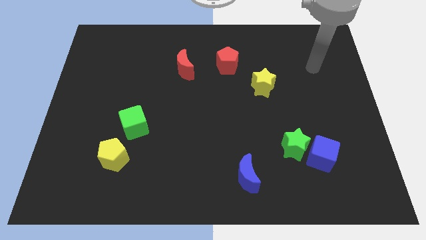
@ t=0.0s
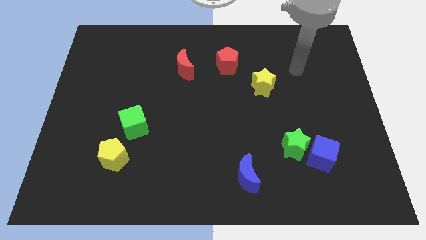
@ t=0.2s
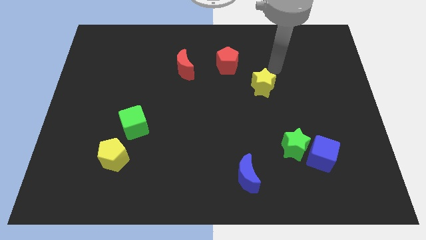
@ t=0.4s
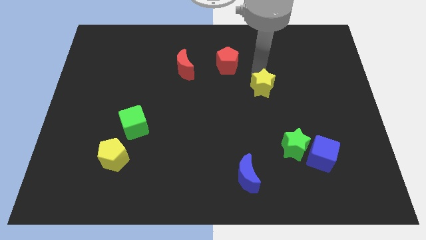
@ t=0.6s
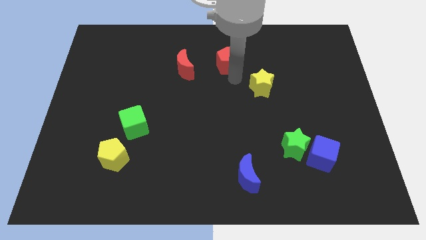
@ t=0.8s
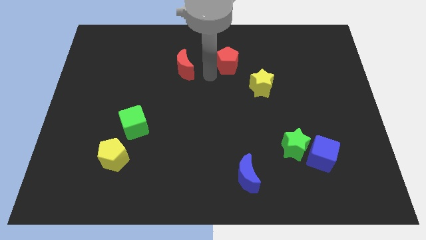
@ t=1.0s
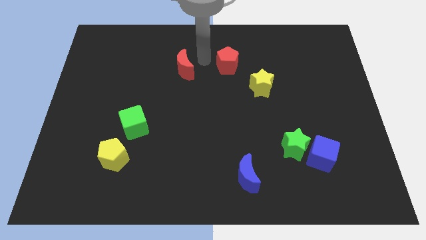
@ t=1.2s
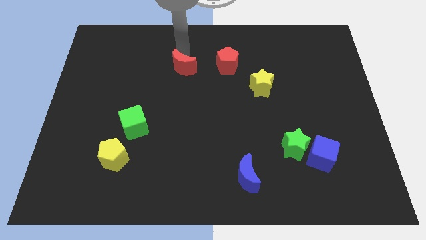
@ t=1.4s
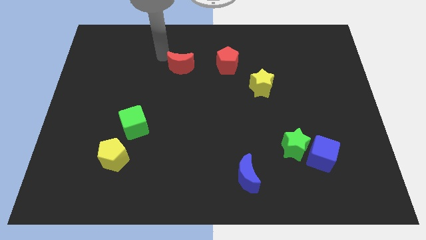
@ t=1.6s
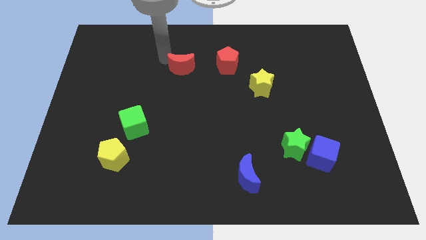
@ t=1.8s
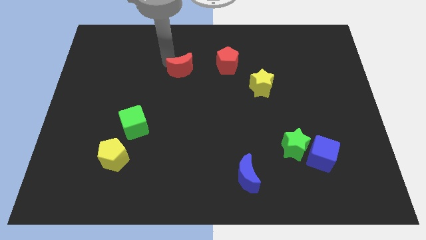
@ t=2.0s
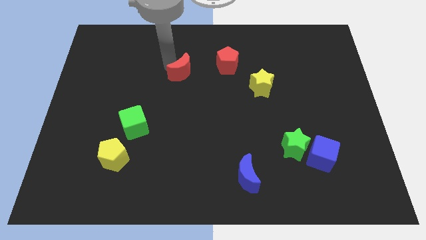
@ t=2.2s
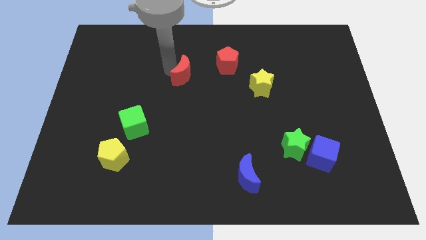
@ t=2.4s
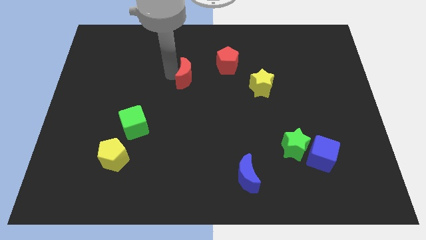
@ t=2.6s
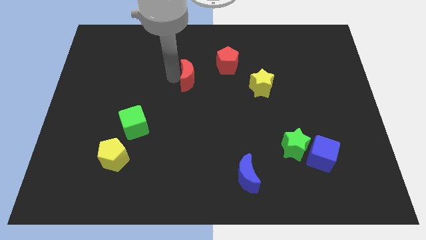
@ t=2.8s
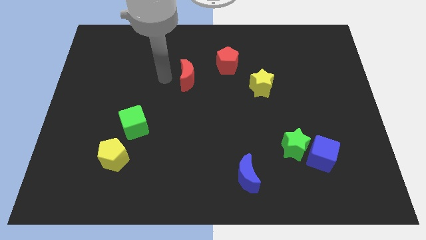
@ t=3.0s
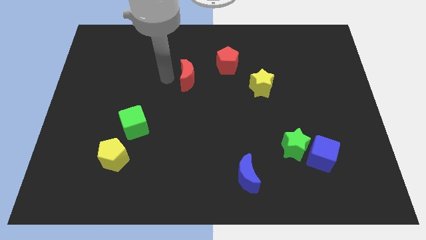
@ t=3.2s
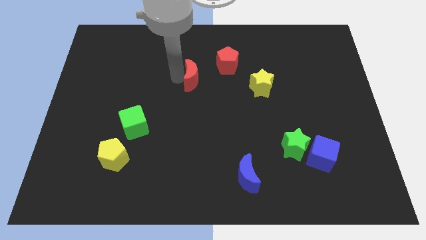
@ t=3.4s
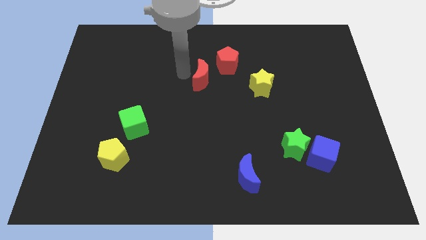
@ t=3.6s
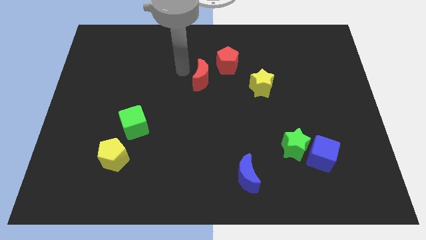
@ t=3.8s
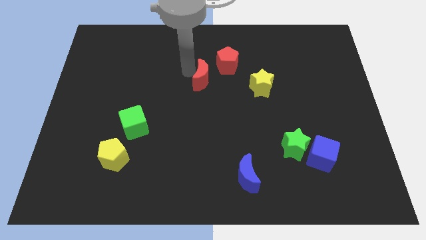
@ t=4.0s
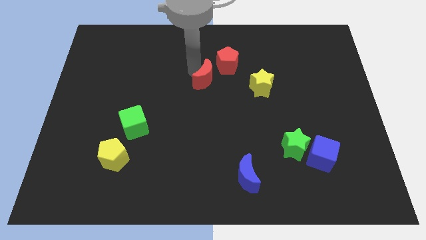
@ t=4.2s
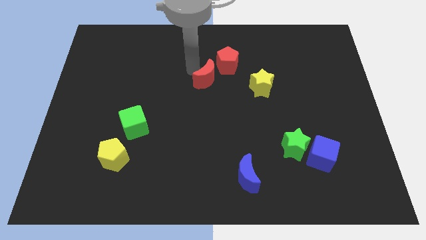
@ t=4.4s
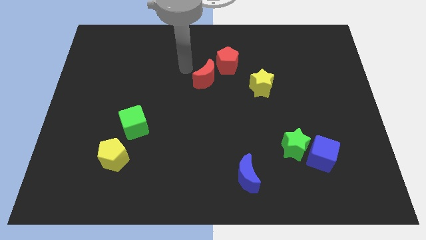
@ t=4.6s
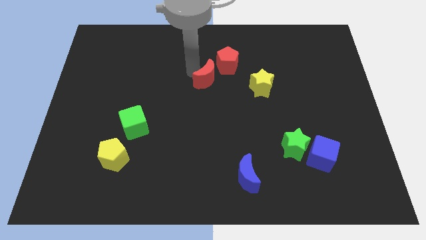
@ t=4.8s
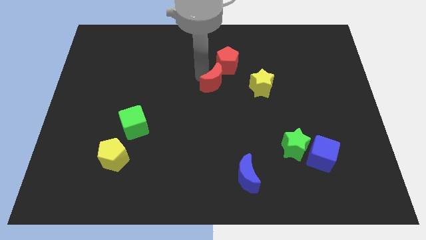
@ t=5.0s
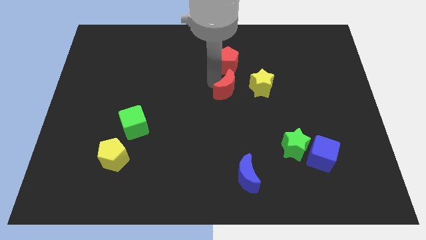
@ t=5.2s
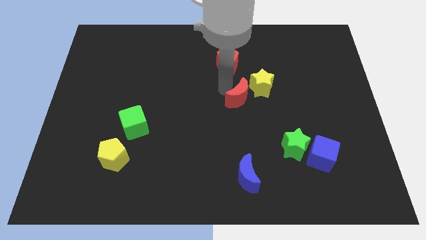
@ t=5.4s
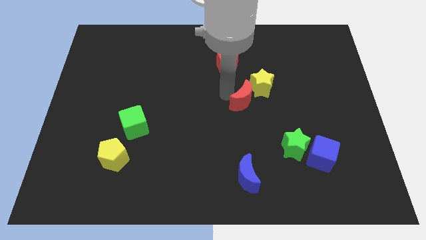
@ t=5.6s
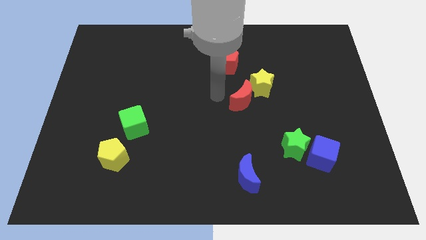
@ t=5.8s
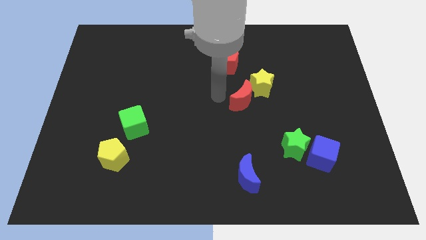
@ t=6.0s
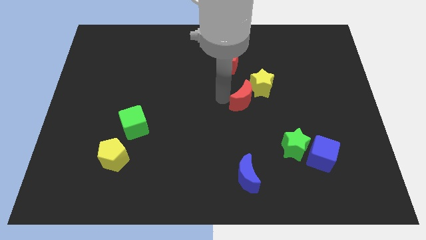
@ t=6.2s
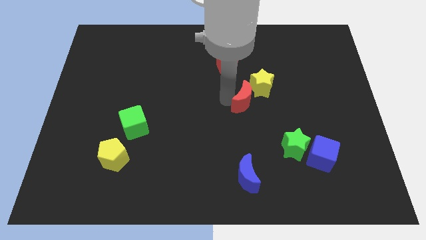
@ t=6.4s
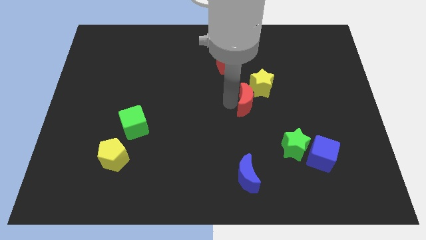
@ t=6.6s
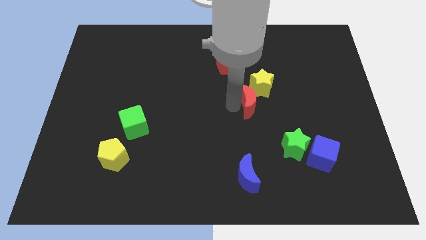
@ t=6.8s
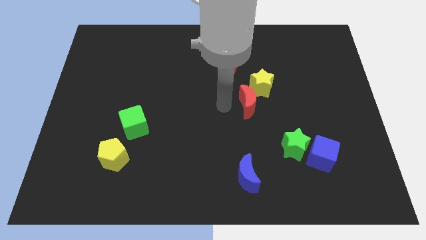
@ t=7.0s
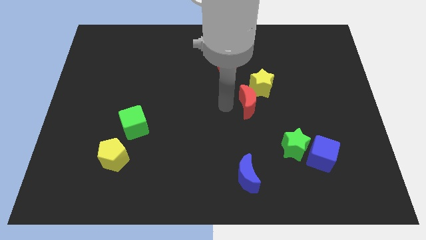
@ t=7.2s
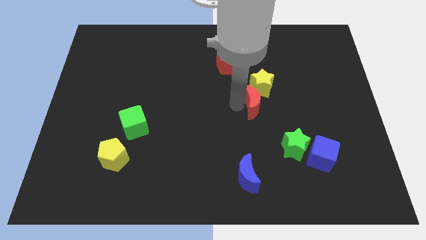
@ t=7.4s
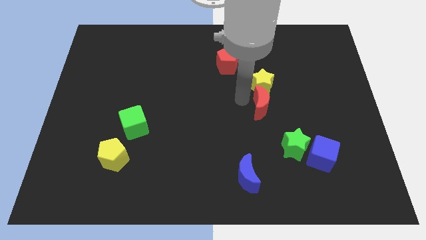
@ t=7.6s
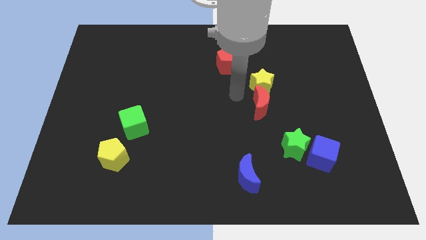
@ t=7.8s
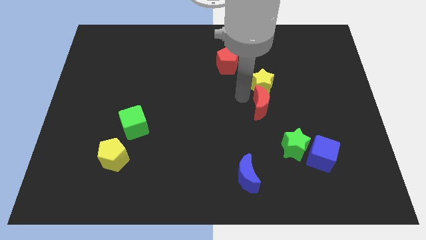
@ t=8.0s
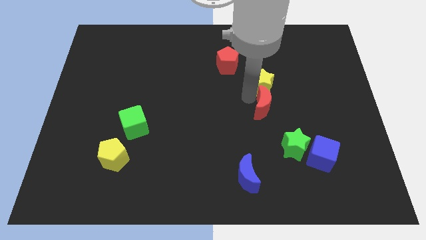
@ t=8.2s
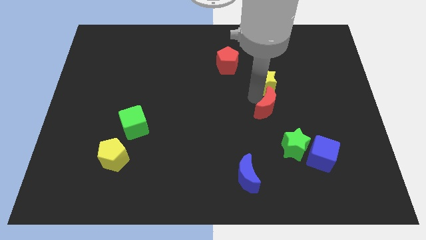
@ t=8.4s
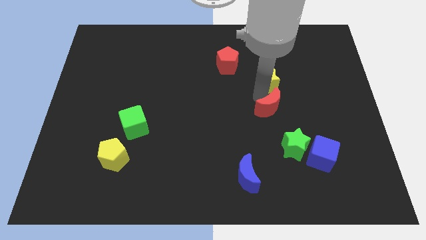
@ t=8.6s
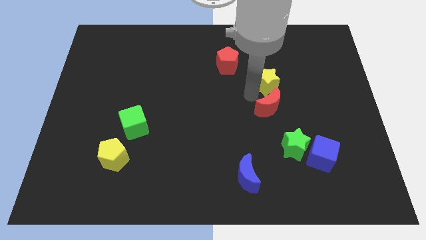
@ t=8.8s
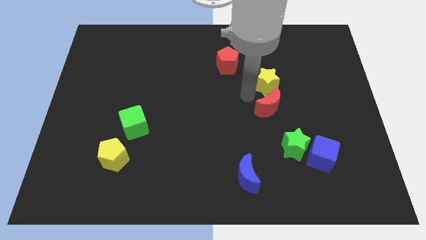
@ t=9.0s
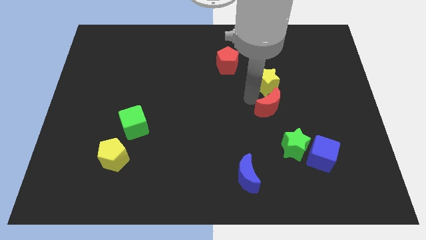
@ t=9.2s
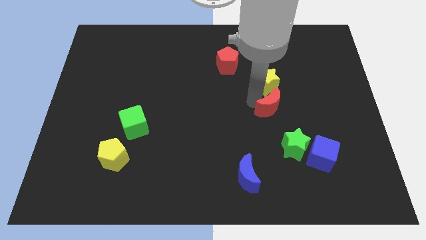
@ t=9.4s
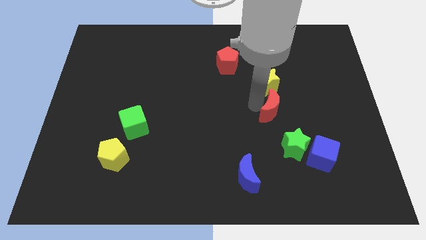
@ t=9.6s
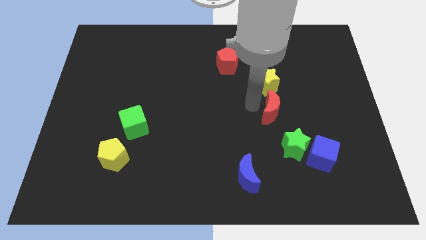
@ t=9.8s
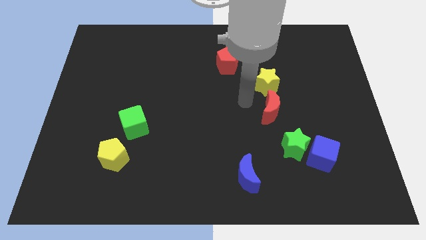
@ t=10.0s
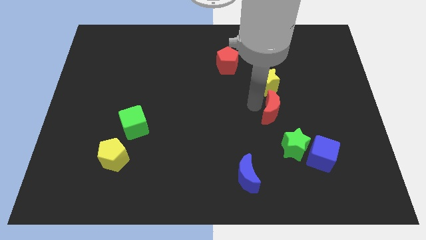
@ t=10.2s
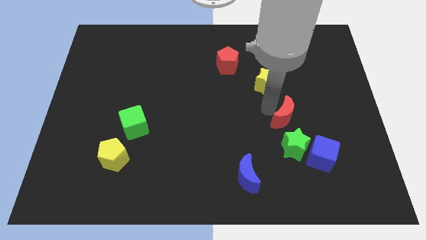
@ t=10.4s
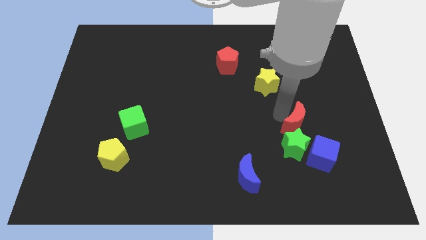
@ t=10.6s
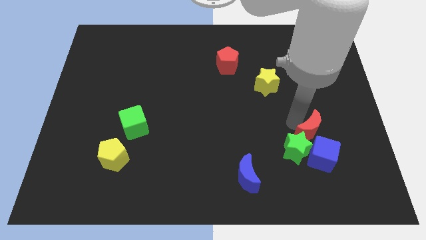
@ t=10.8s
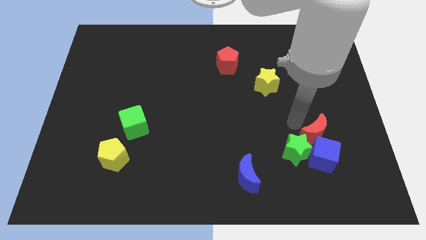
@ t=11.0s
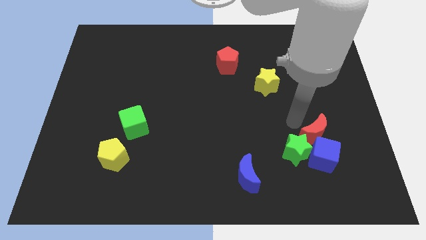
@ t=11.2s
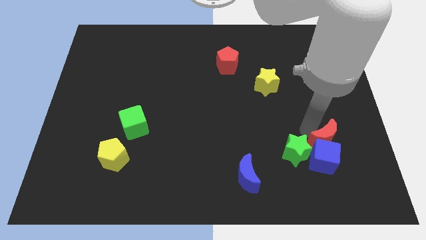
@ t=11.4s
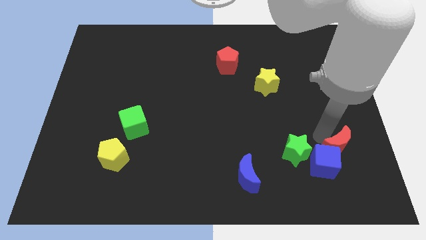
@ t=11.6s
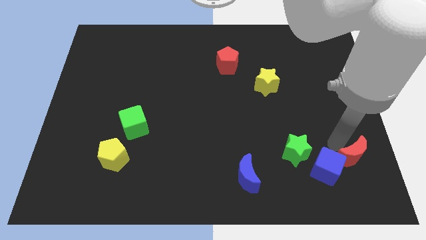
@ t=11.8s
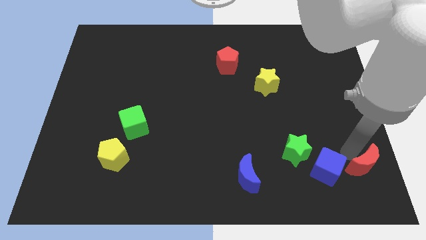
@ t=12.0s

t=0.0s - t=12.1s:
move the red moon to the bottom right corner
